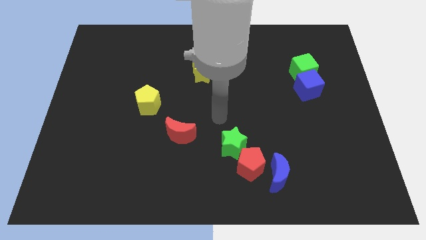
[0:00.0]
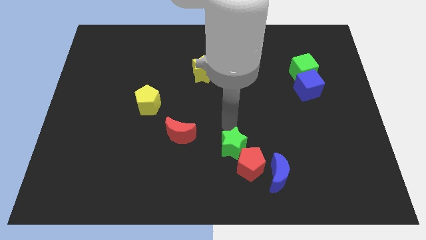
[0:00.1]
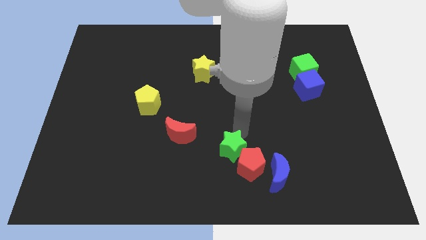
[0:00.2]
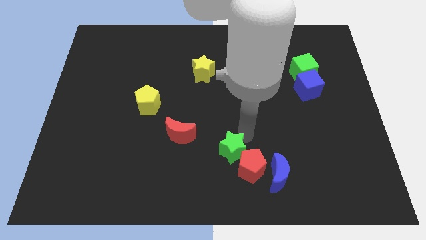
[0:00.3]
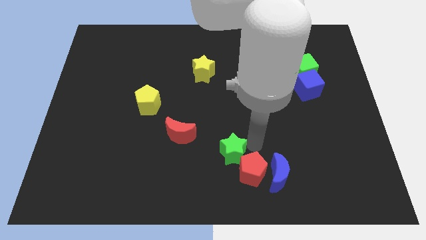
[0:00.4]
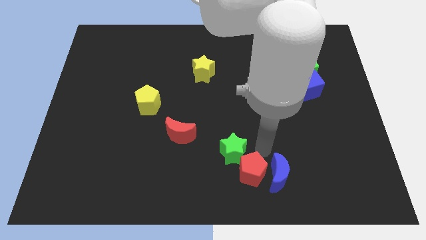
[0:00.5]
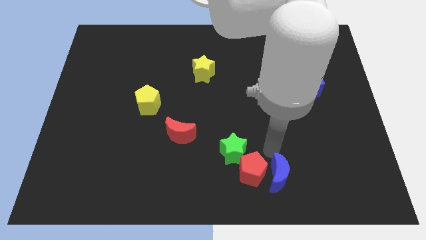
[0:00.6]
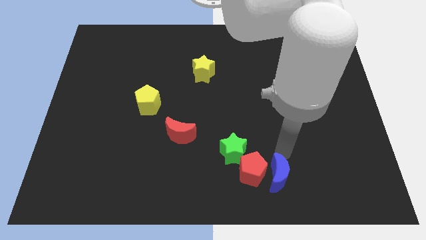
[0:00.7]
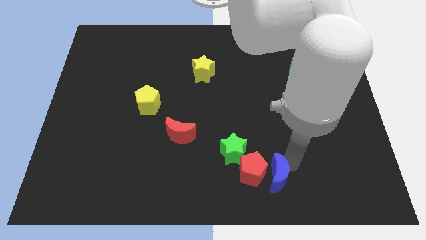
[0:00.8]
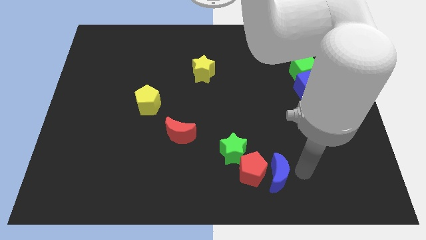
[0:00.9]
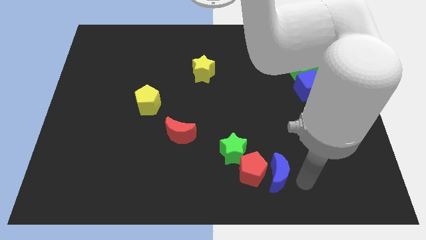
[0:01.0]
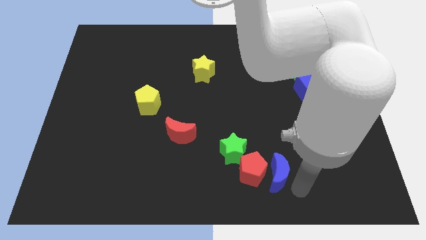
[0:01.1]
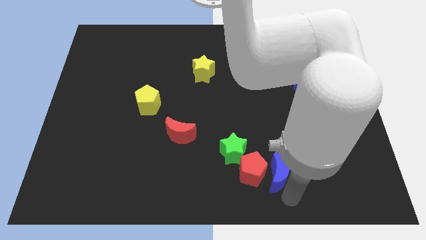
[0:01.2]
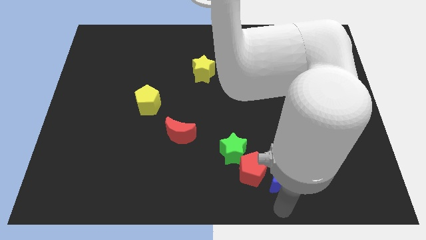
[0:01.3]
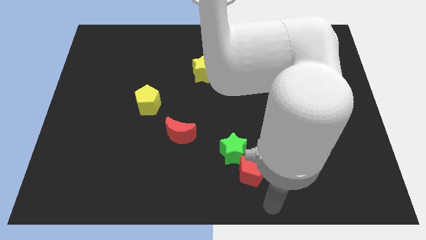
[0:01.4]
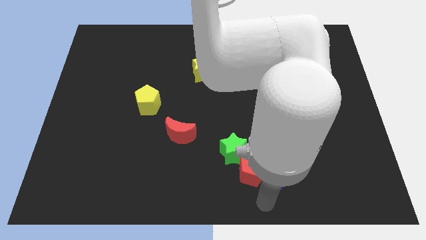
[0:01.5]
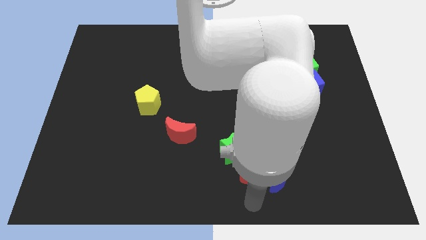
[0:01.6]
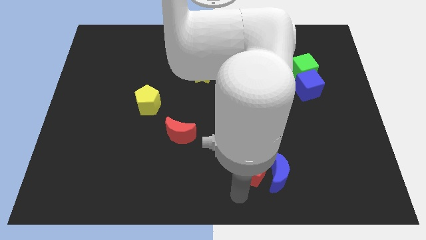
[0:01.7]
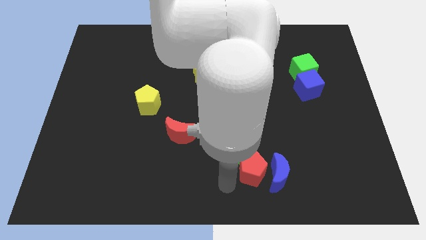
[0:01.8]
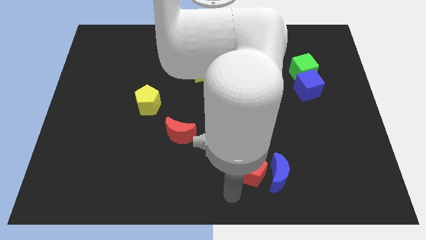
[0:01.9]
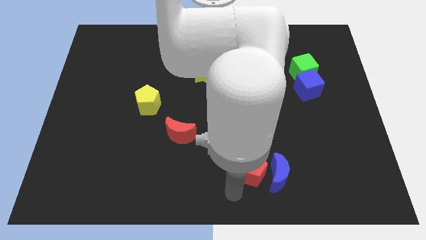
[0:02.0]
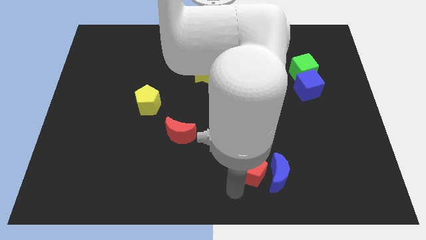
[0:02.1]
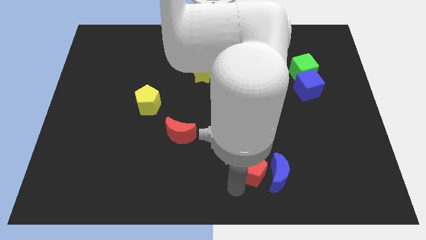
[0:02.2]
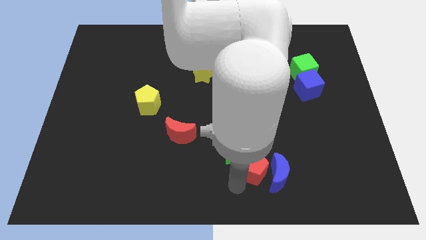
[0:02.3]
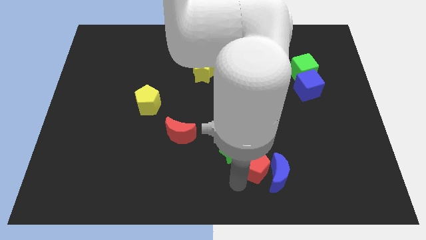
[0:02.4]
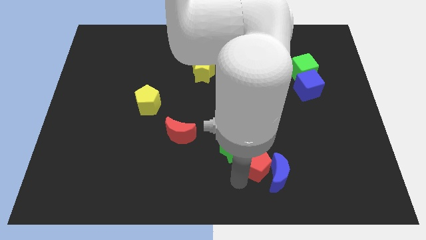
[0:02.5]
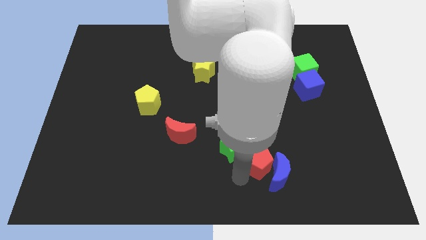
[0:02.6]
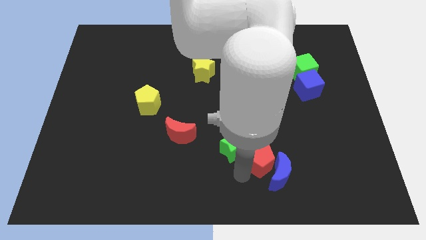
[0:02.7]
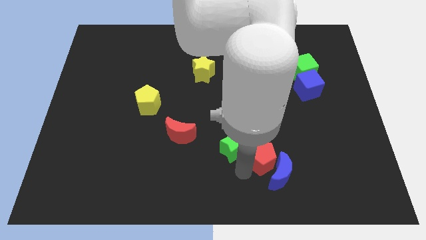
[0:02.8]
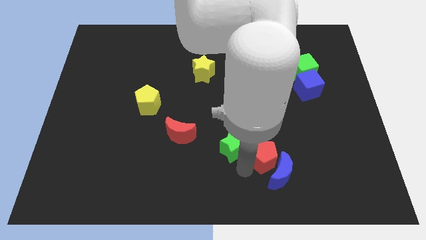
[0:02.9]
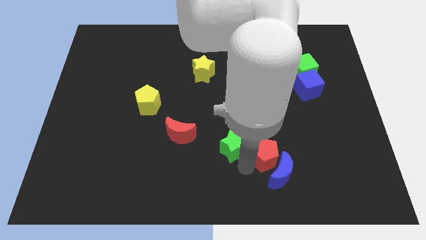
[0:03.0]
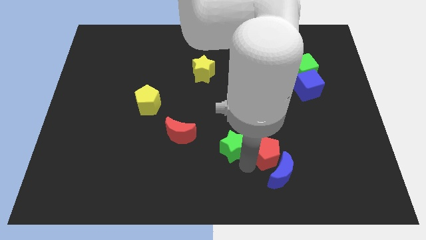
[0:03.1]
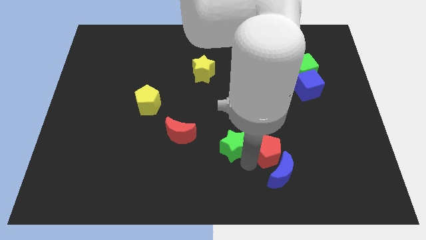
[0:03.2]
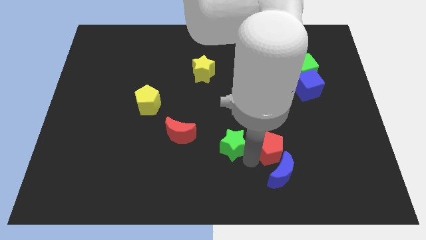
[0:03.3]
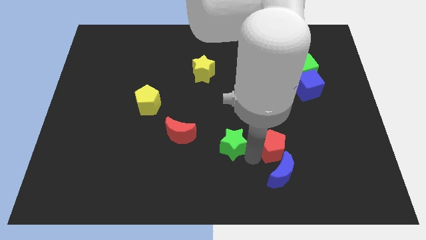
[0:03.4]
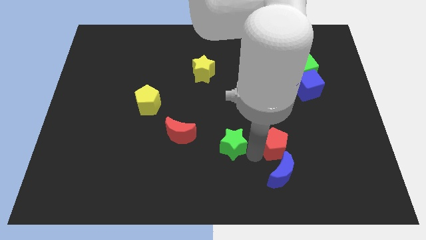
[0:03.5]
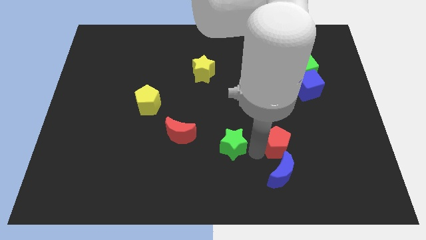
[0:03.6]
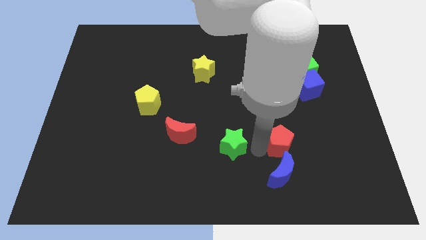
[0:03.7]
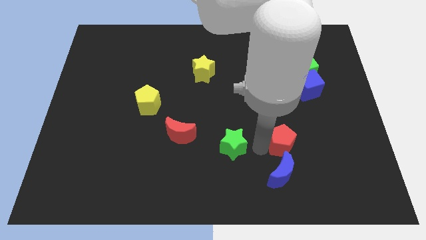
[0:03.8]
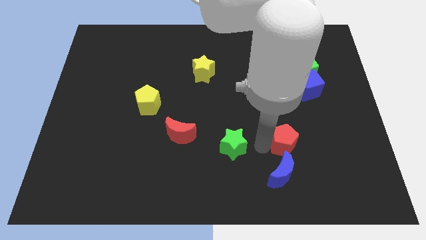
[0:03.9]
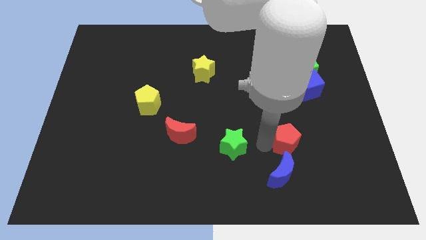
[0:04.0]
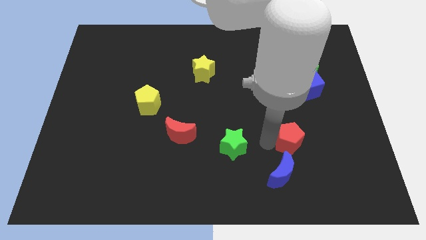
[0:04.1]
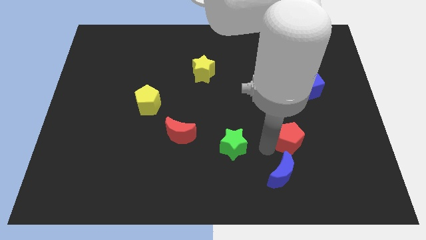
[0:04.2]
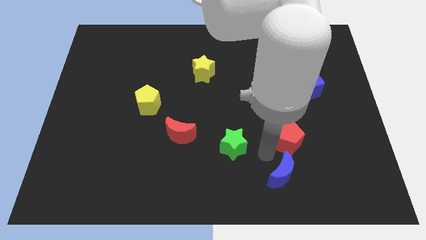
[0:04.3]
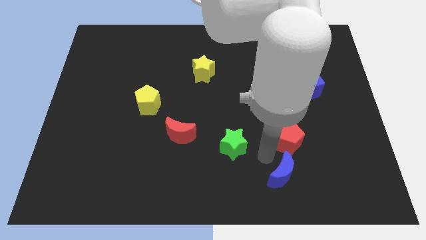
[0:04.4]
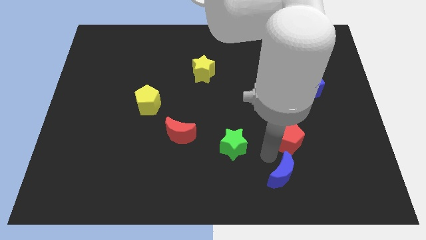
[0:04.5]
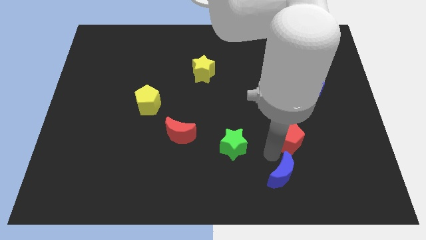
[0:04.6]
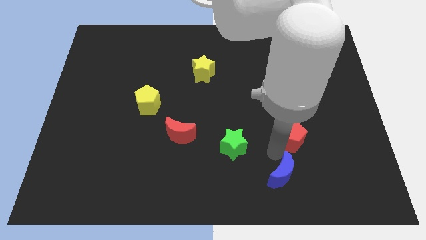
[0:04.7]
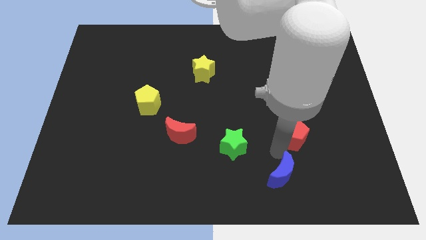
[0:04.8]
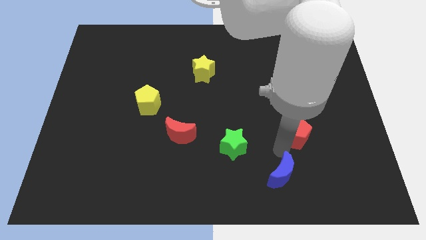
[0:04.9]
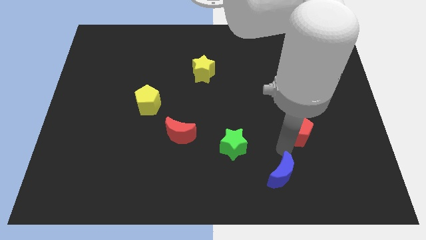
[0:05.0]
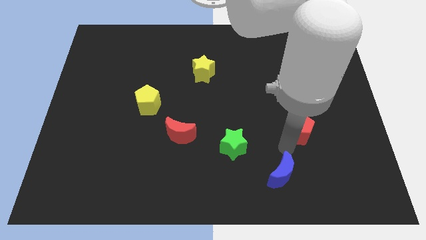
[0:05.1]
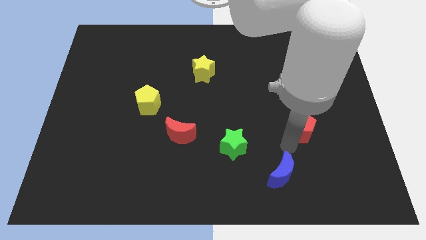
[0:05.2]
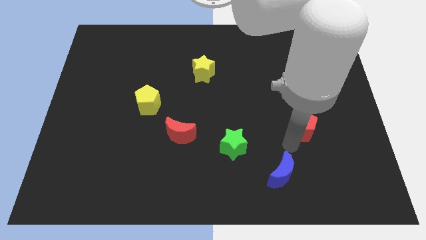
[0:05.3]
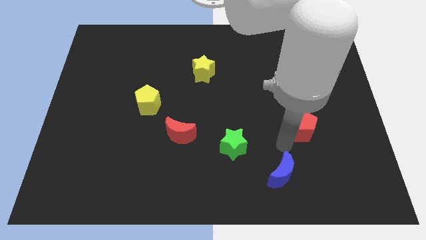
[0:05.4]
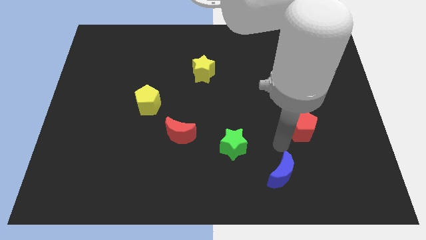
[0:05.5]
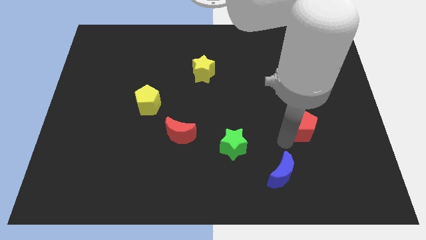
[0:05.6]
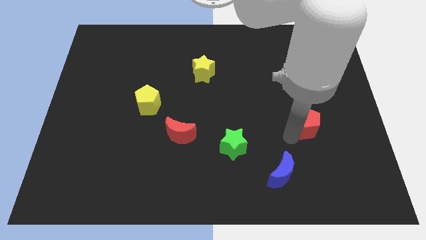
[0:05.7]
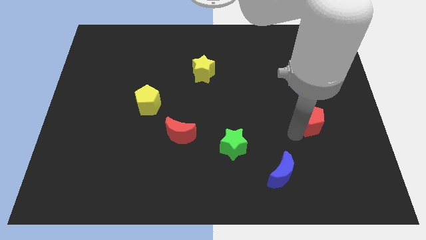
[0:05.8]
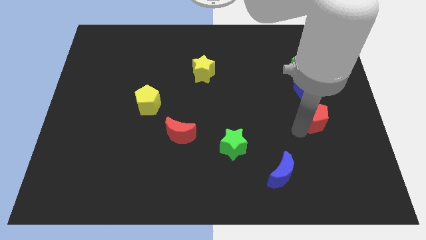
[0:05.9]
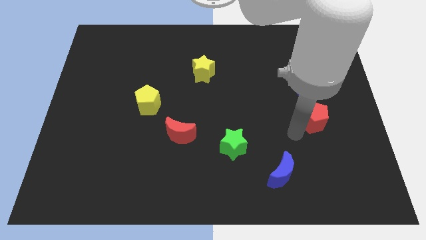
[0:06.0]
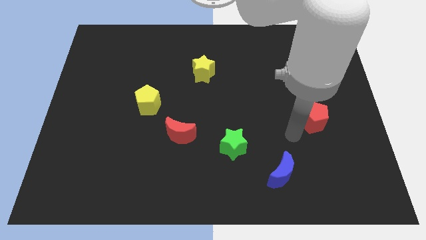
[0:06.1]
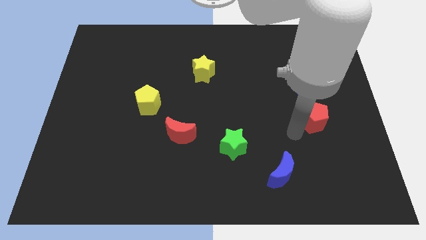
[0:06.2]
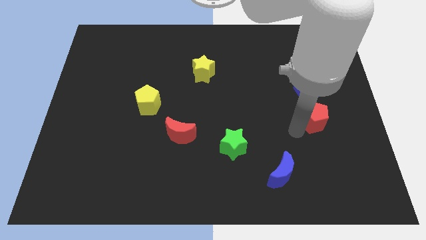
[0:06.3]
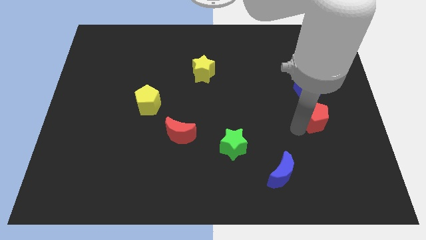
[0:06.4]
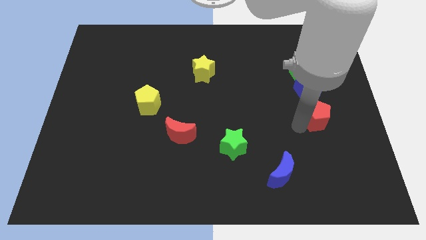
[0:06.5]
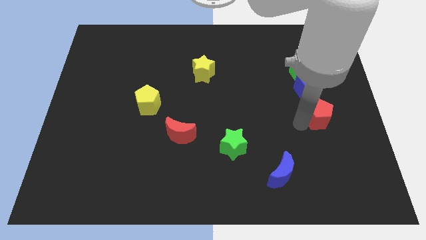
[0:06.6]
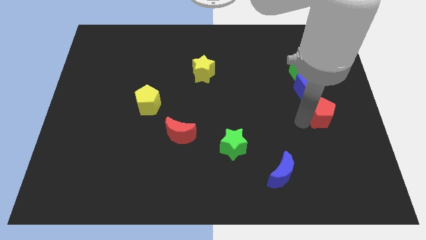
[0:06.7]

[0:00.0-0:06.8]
move the red pentagon to the bottom right side of the blue cube

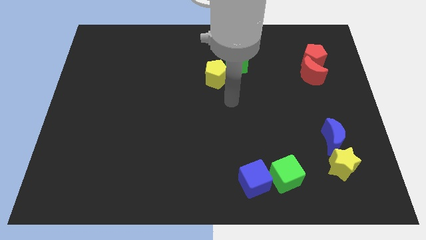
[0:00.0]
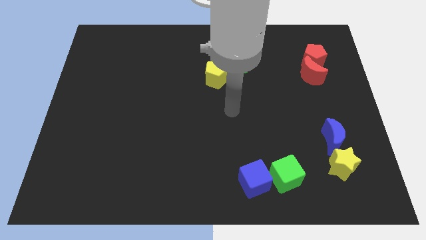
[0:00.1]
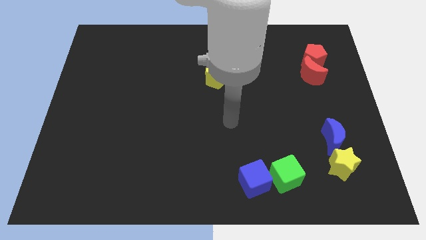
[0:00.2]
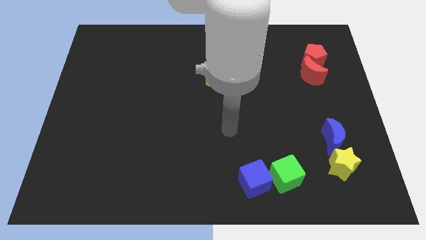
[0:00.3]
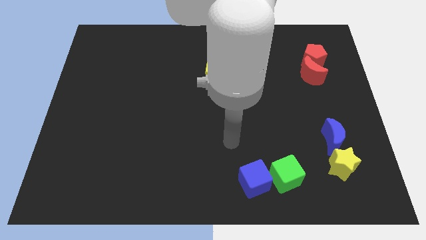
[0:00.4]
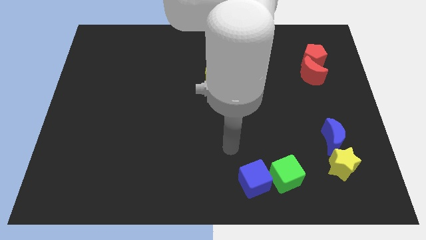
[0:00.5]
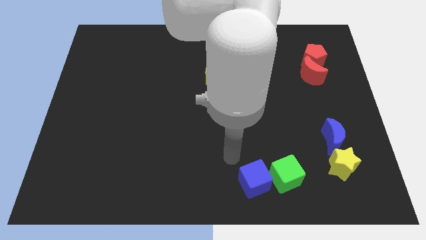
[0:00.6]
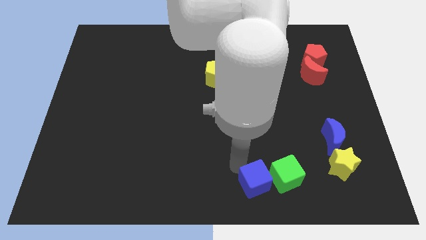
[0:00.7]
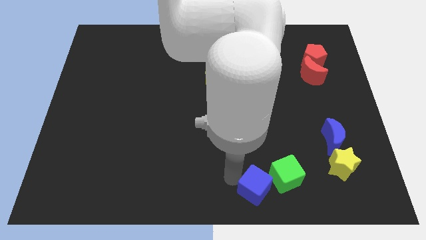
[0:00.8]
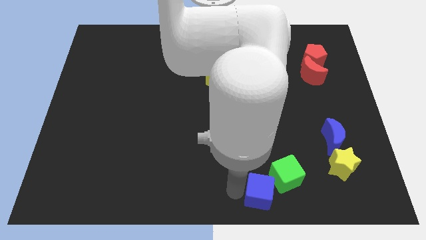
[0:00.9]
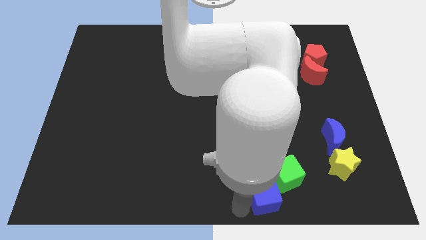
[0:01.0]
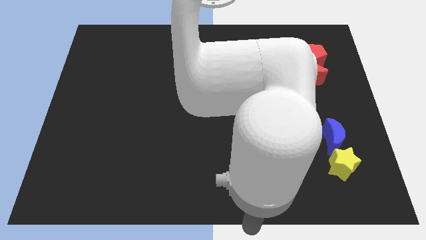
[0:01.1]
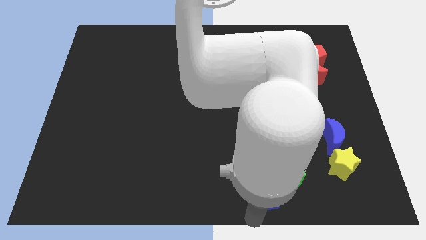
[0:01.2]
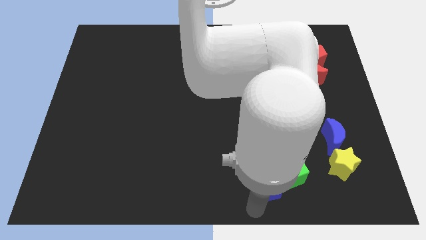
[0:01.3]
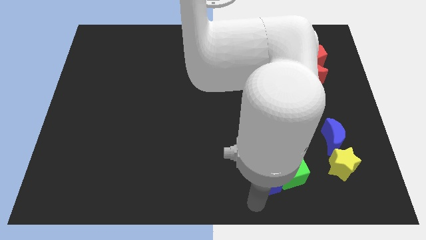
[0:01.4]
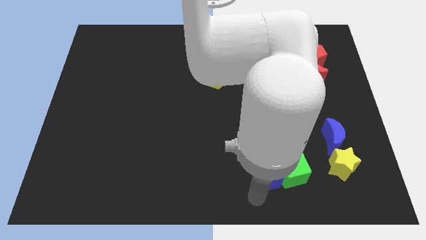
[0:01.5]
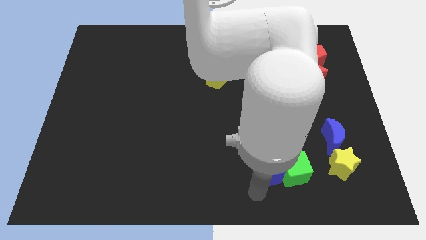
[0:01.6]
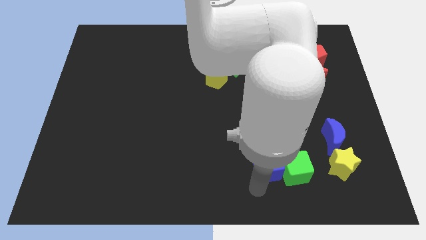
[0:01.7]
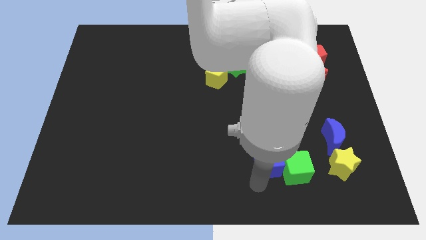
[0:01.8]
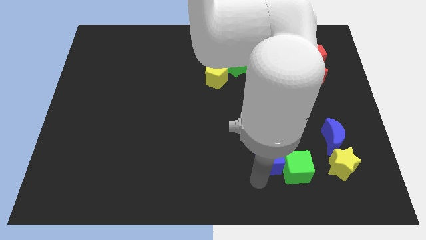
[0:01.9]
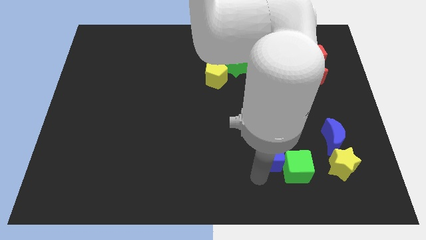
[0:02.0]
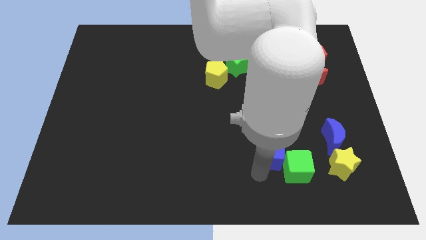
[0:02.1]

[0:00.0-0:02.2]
slide the blue cube just left of the blue moon
